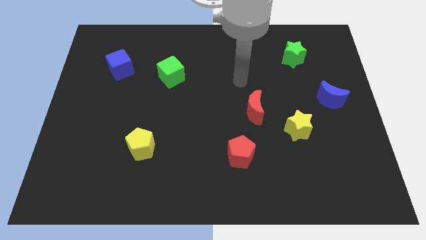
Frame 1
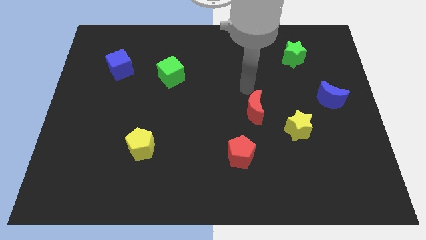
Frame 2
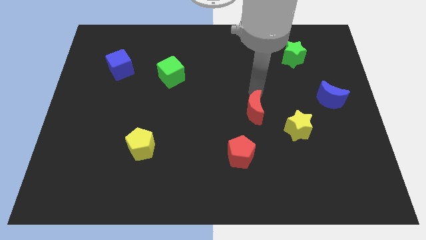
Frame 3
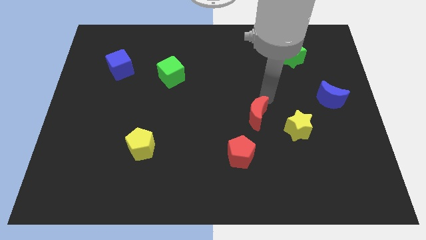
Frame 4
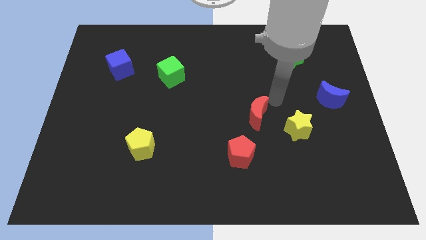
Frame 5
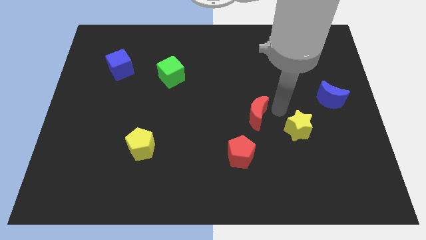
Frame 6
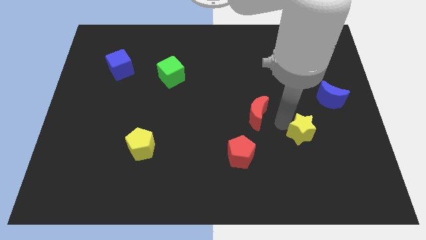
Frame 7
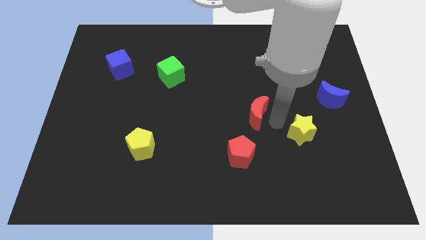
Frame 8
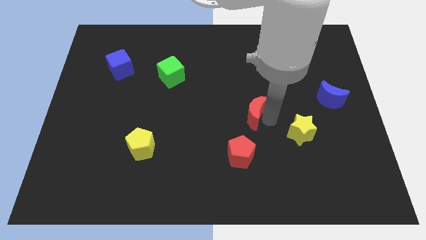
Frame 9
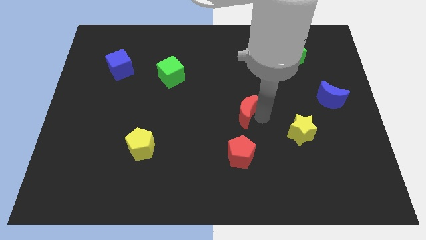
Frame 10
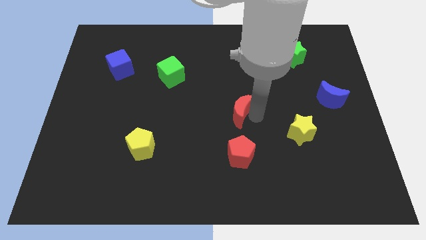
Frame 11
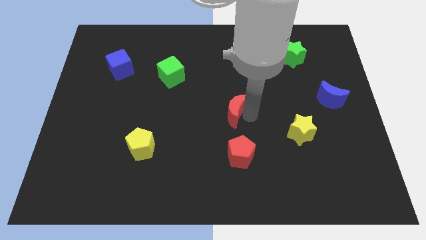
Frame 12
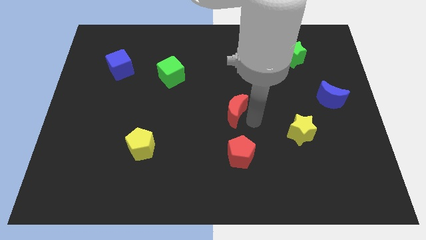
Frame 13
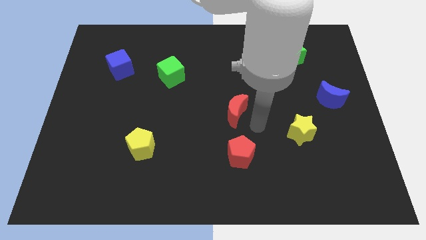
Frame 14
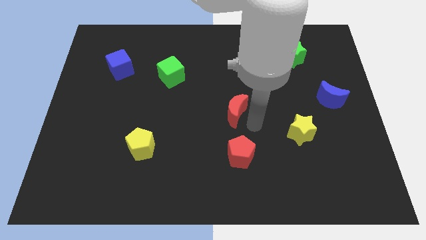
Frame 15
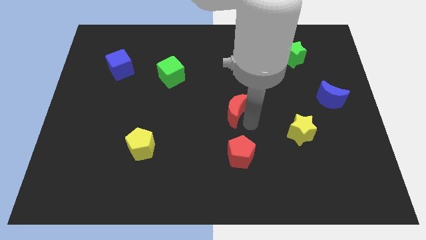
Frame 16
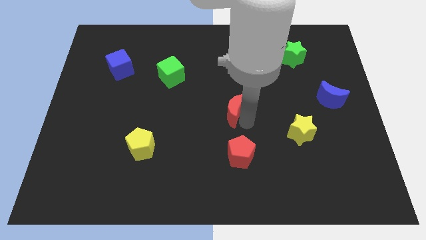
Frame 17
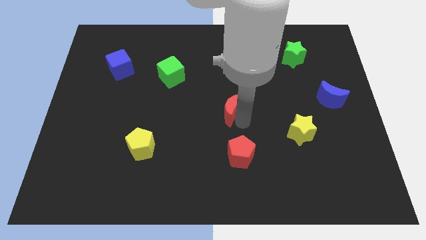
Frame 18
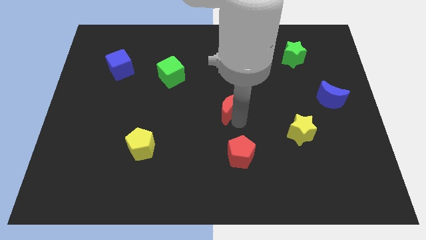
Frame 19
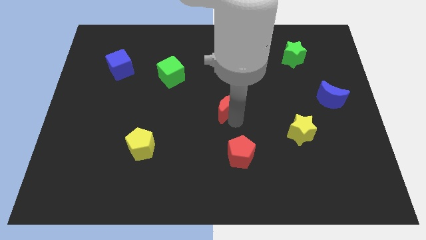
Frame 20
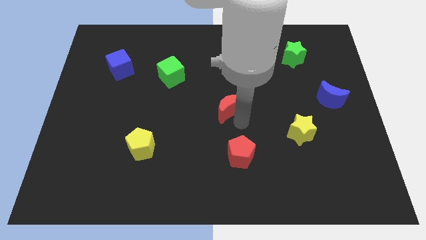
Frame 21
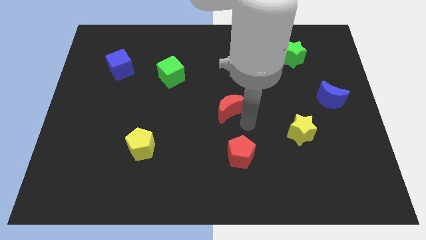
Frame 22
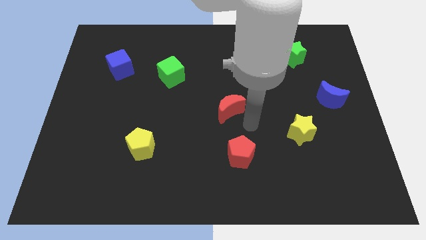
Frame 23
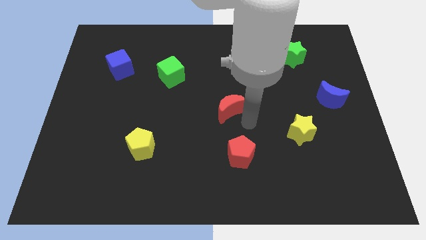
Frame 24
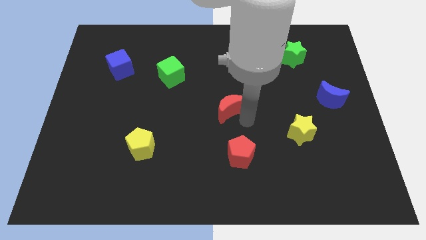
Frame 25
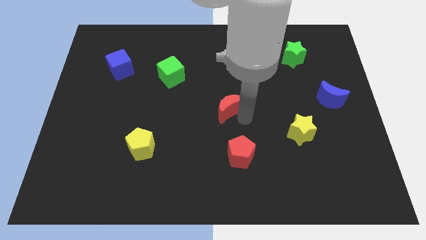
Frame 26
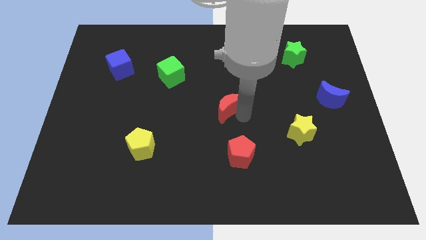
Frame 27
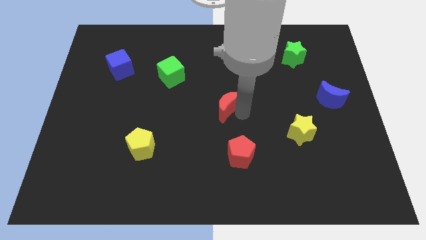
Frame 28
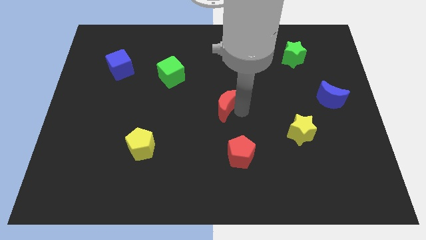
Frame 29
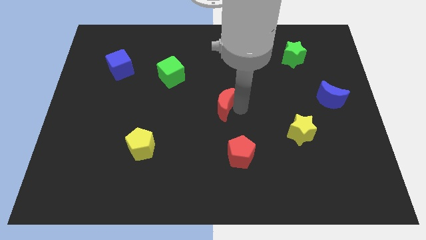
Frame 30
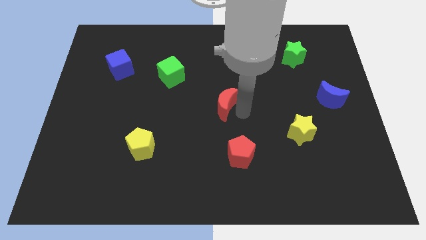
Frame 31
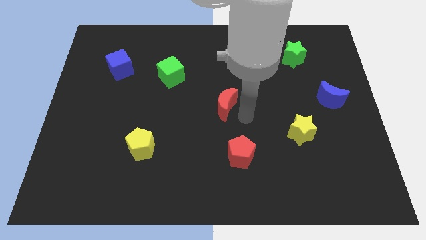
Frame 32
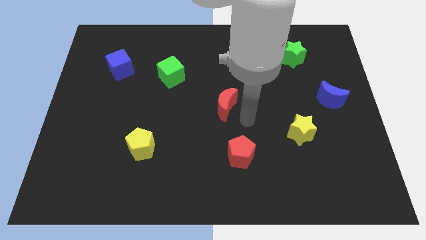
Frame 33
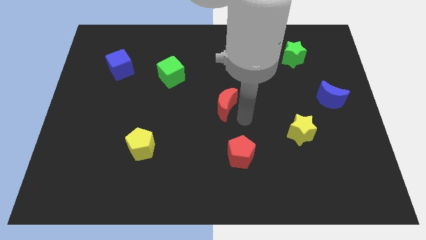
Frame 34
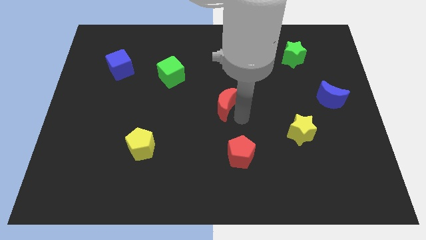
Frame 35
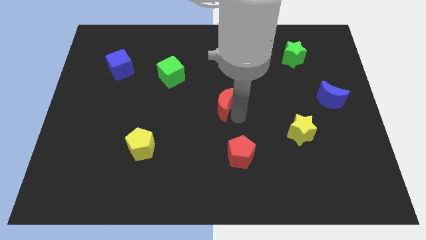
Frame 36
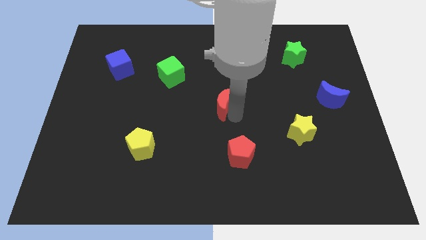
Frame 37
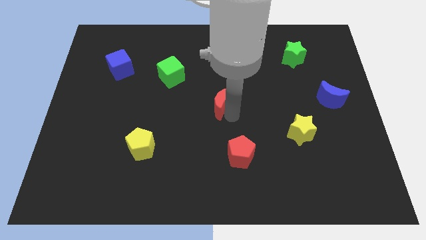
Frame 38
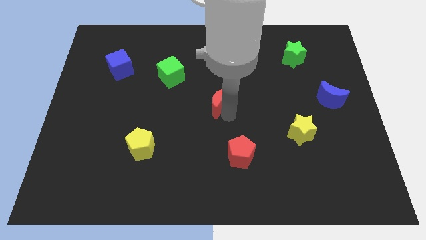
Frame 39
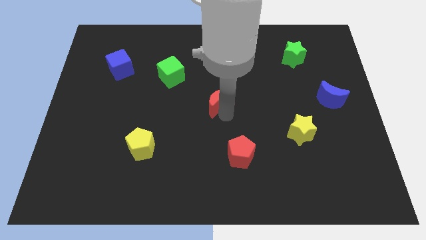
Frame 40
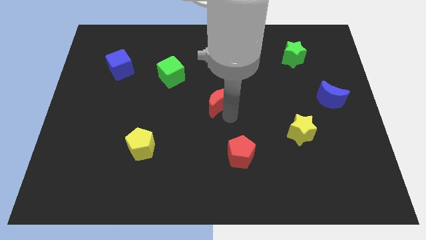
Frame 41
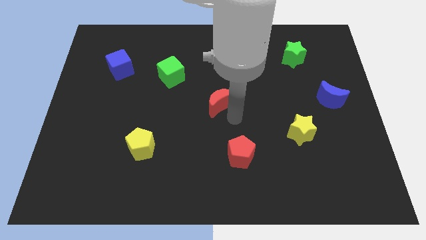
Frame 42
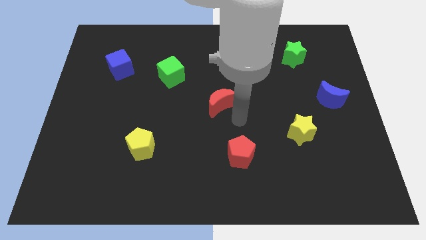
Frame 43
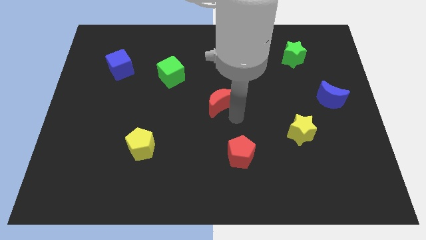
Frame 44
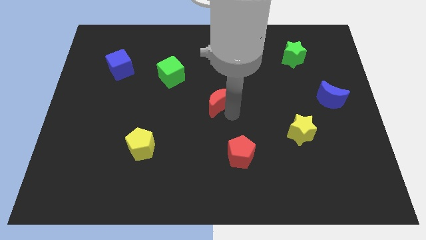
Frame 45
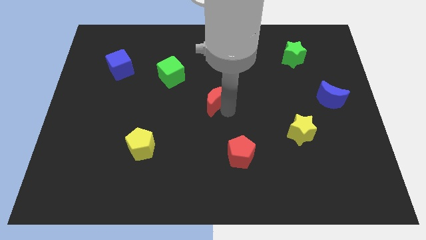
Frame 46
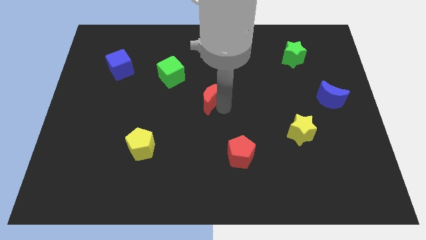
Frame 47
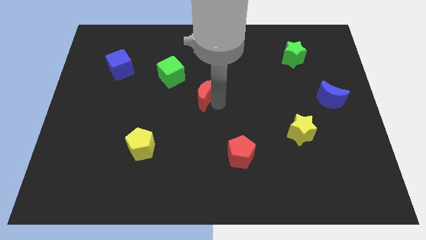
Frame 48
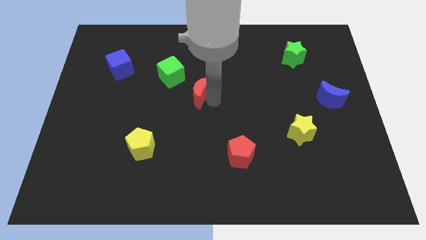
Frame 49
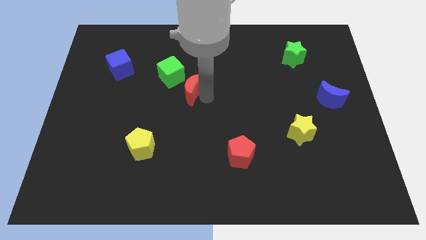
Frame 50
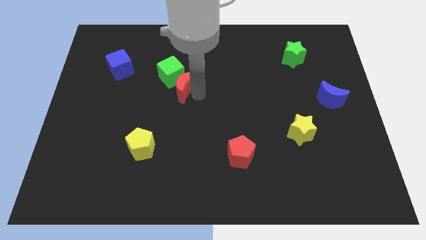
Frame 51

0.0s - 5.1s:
push the red moon to the green cube
